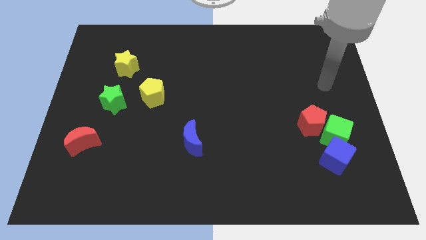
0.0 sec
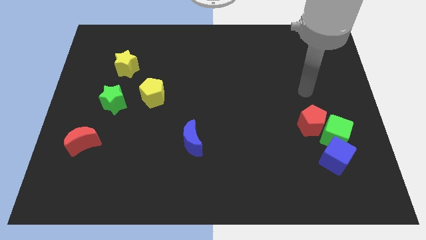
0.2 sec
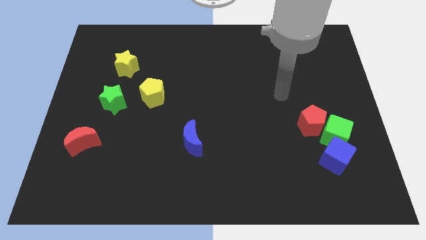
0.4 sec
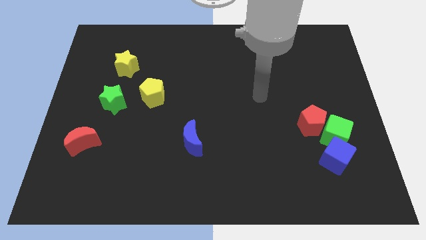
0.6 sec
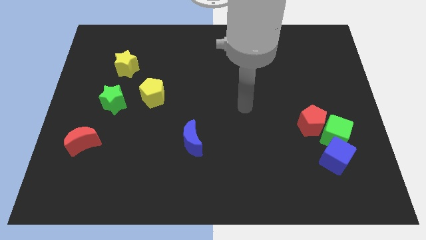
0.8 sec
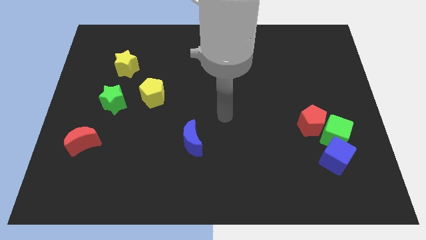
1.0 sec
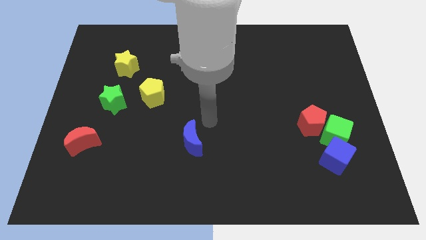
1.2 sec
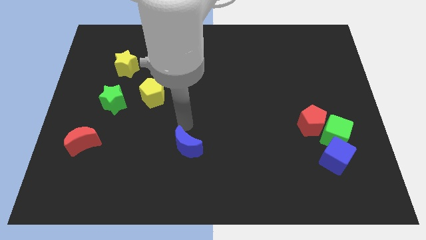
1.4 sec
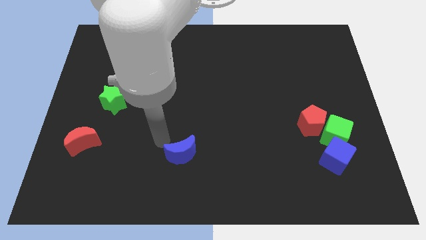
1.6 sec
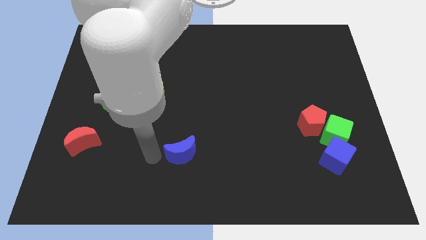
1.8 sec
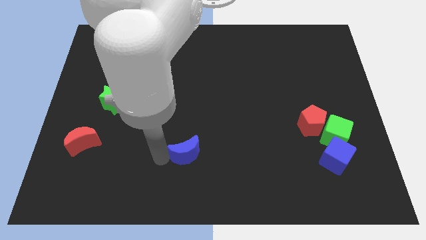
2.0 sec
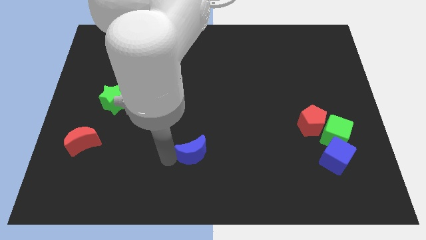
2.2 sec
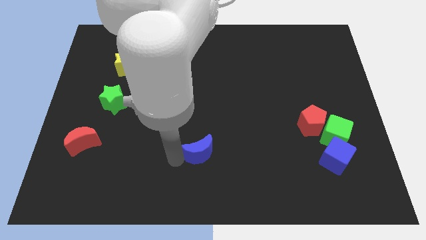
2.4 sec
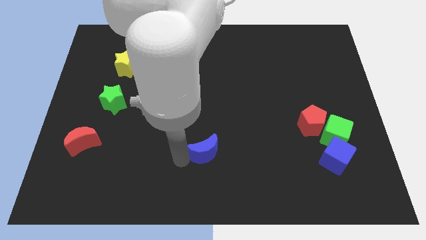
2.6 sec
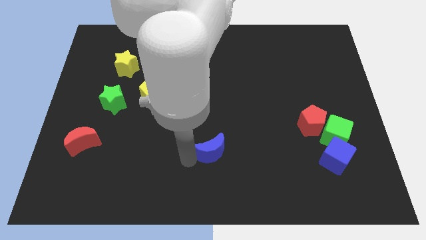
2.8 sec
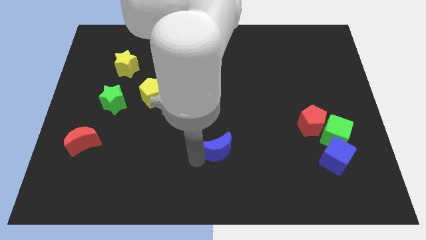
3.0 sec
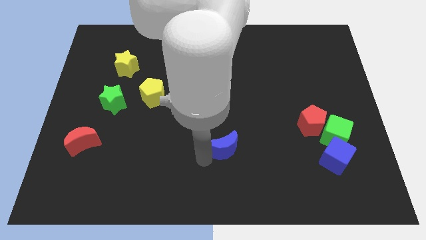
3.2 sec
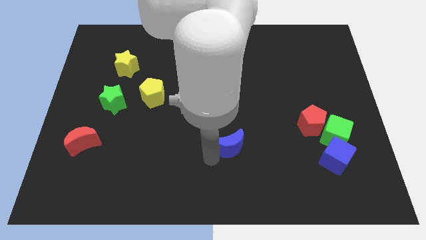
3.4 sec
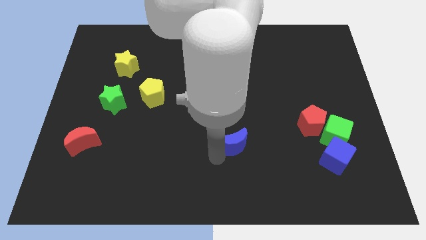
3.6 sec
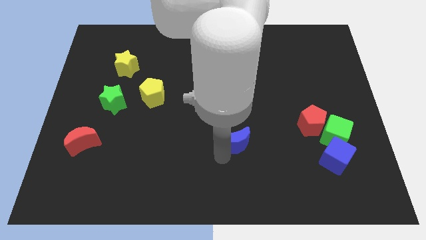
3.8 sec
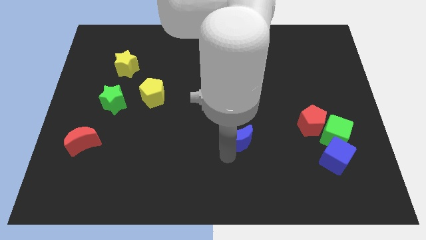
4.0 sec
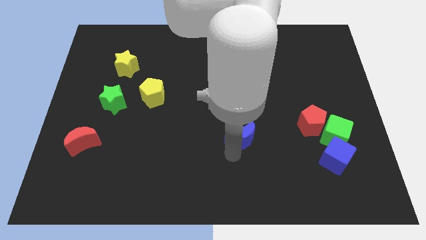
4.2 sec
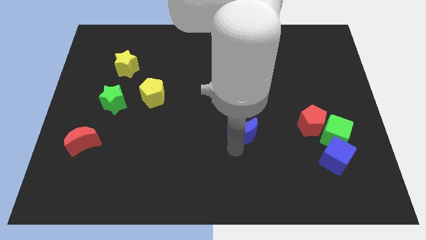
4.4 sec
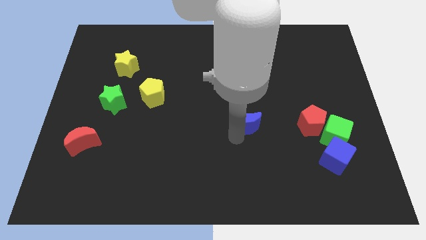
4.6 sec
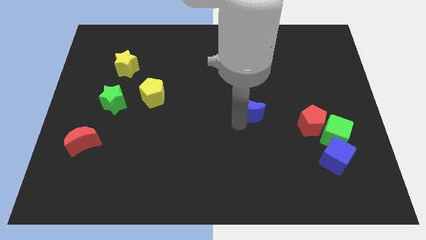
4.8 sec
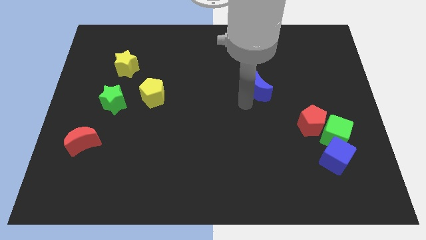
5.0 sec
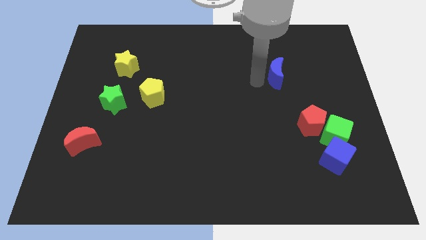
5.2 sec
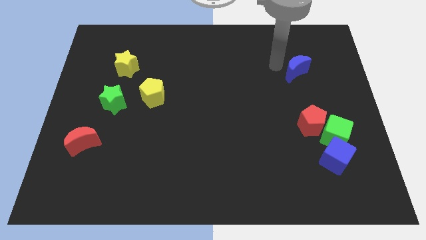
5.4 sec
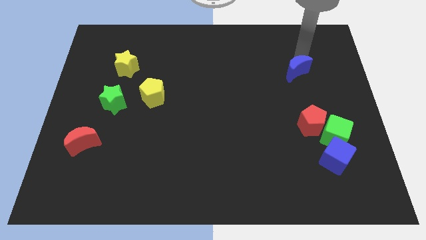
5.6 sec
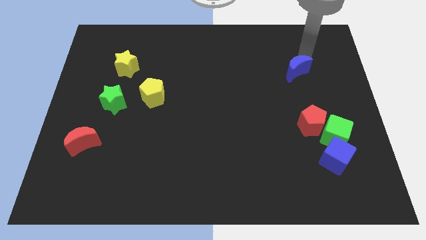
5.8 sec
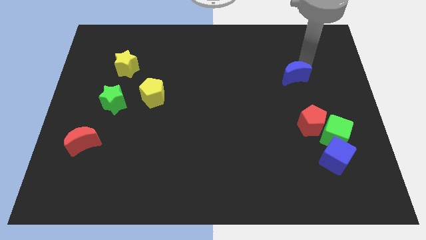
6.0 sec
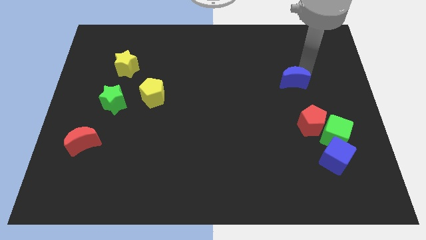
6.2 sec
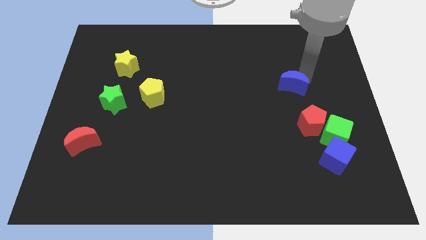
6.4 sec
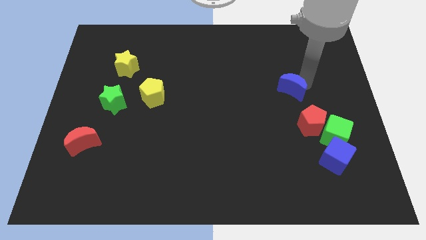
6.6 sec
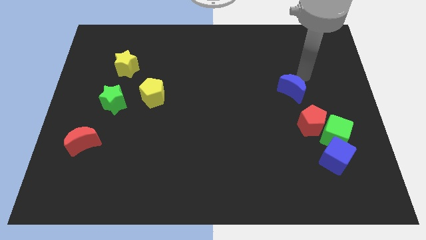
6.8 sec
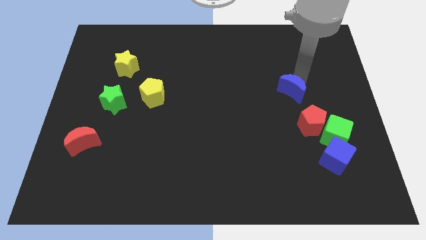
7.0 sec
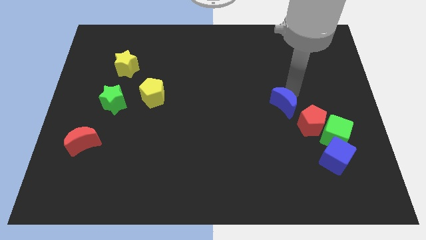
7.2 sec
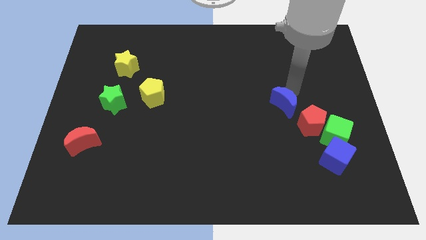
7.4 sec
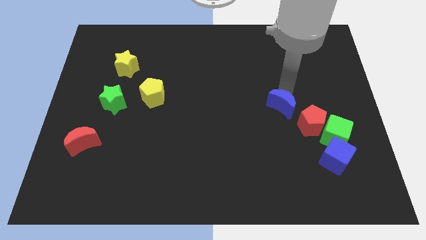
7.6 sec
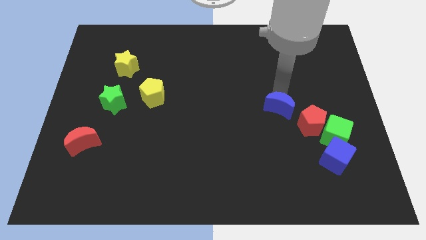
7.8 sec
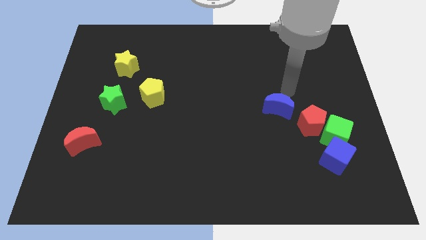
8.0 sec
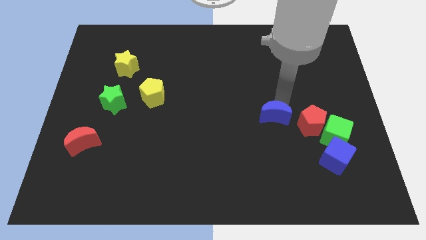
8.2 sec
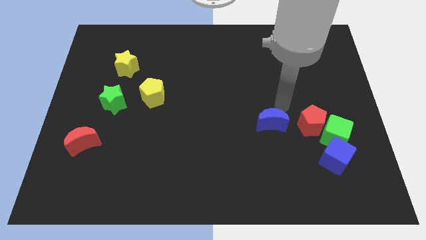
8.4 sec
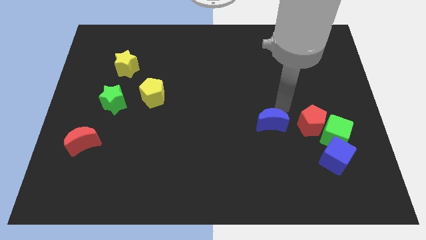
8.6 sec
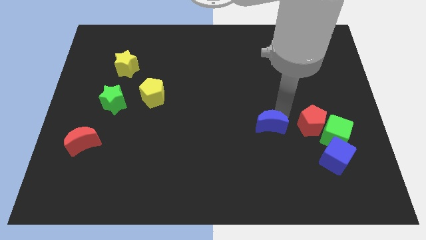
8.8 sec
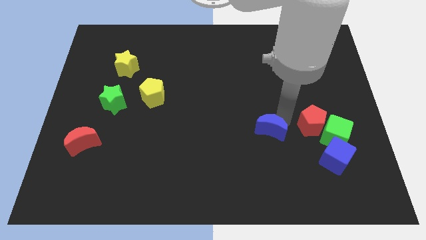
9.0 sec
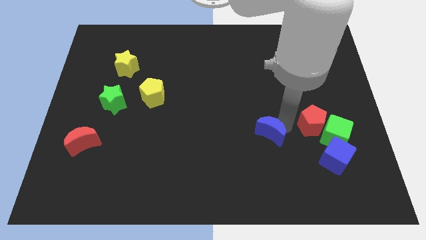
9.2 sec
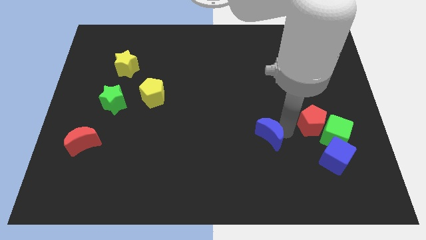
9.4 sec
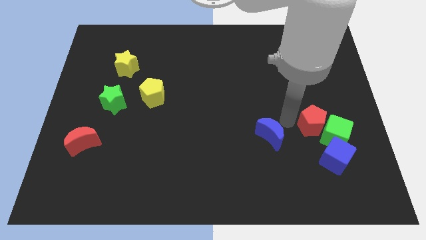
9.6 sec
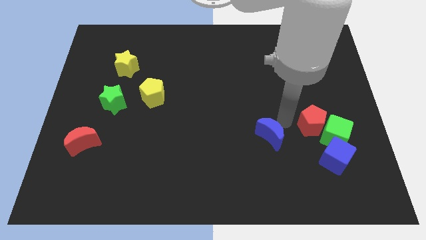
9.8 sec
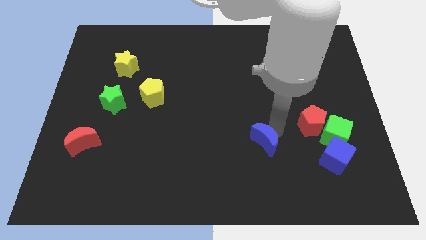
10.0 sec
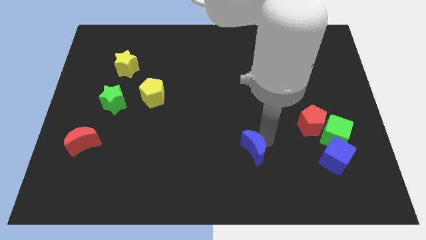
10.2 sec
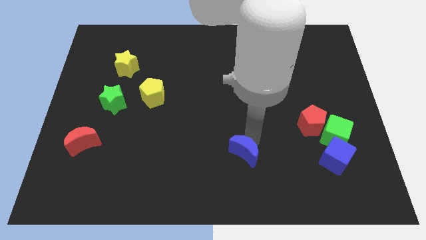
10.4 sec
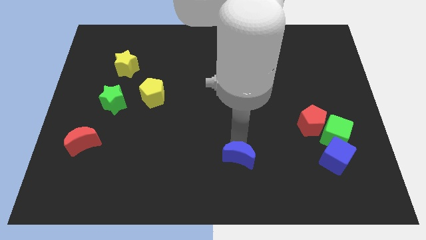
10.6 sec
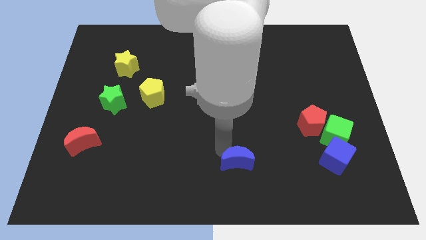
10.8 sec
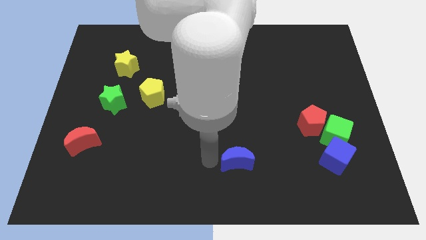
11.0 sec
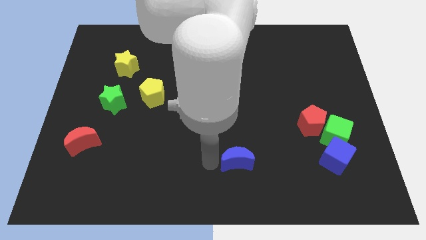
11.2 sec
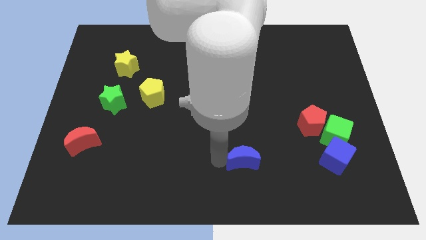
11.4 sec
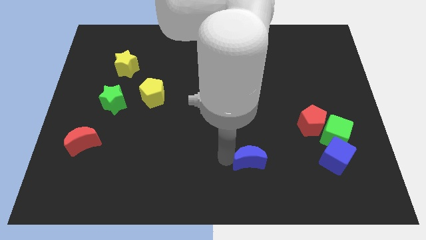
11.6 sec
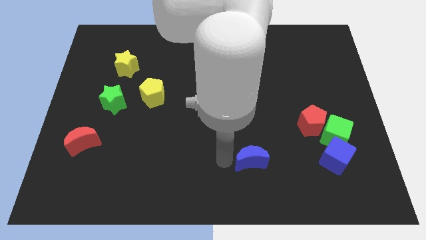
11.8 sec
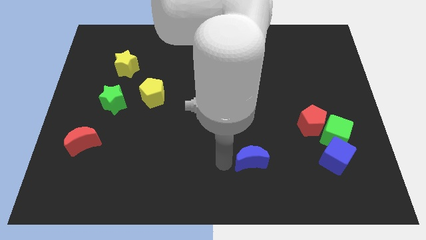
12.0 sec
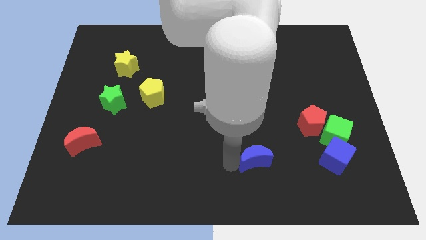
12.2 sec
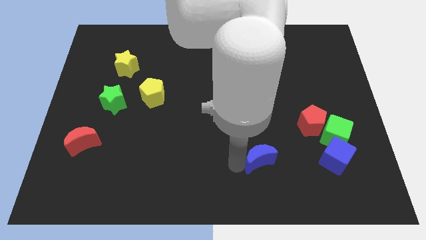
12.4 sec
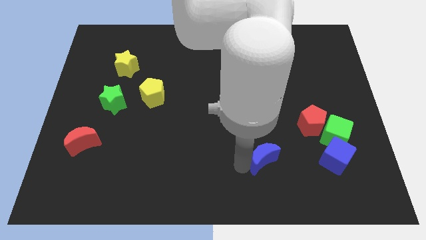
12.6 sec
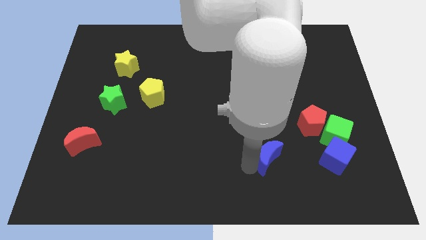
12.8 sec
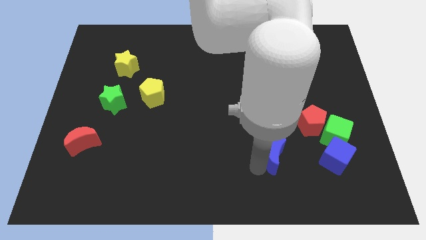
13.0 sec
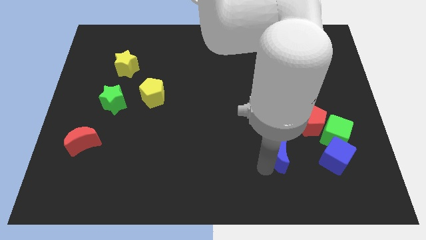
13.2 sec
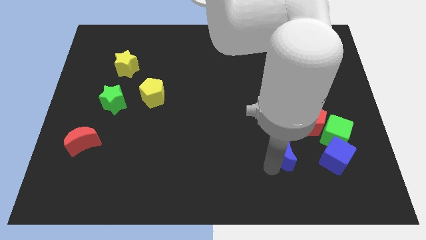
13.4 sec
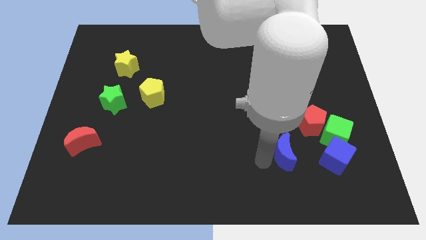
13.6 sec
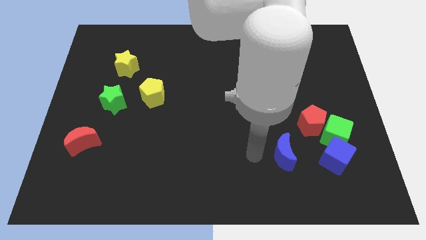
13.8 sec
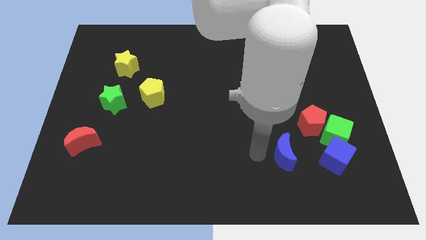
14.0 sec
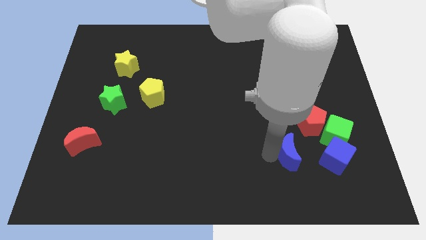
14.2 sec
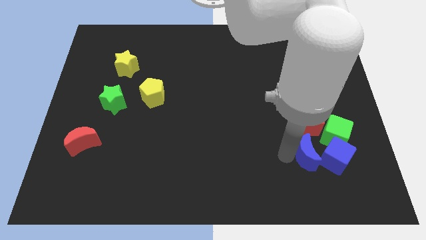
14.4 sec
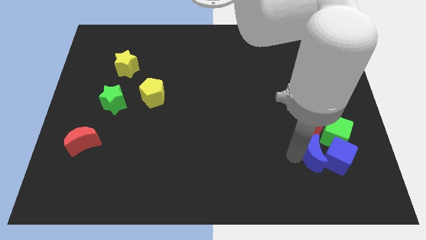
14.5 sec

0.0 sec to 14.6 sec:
move the blue moon close to the blue cube
